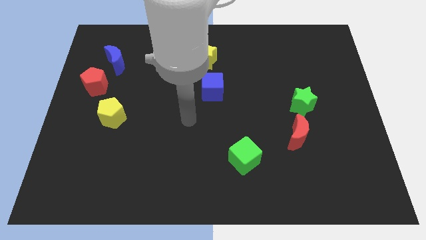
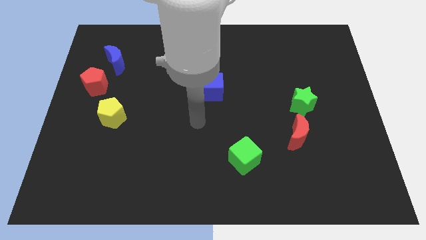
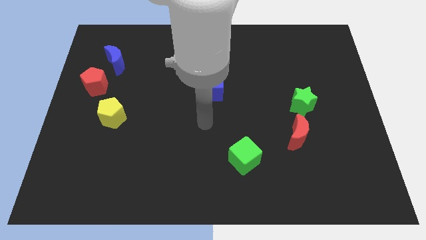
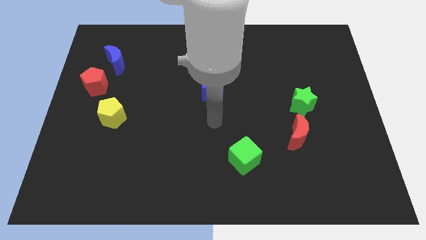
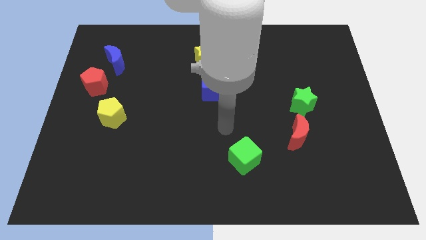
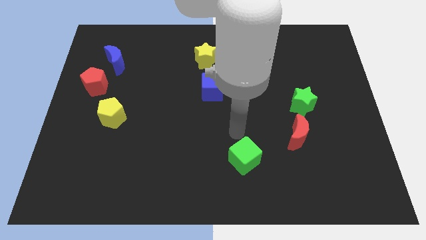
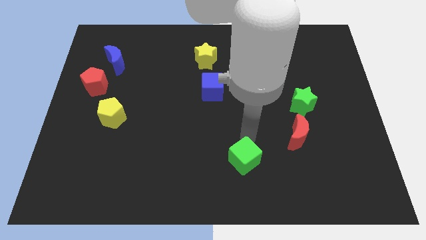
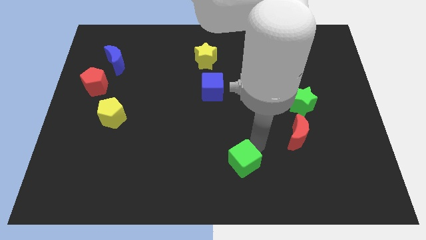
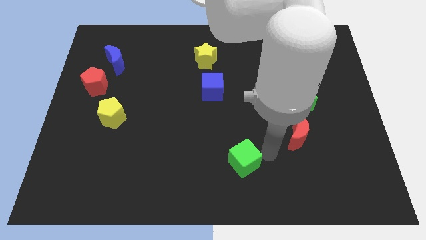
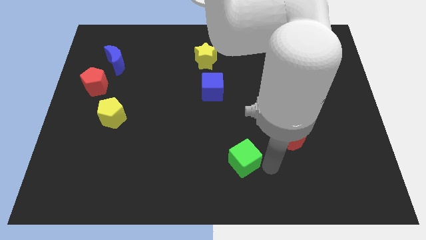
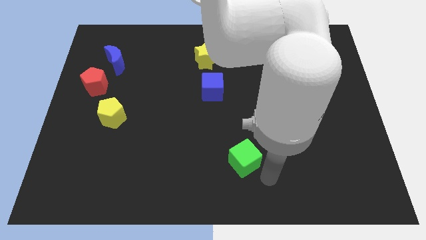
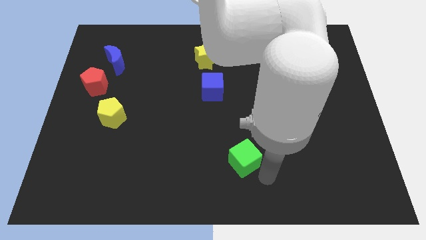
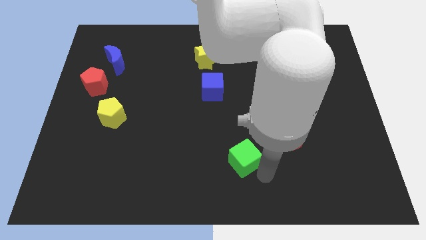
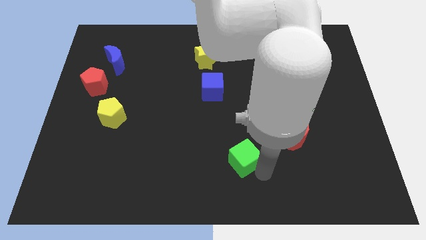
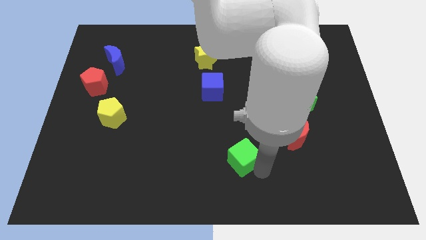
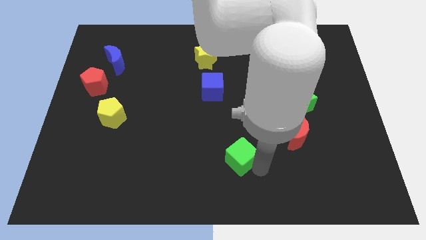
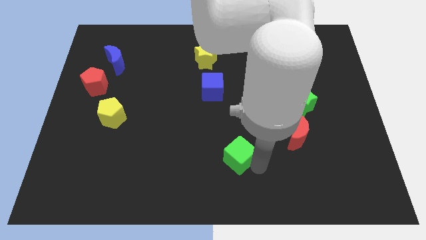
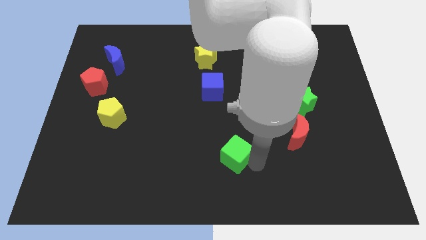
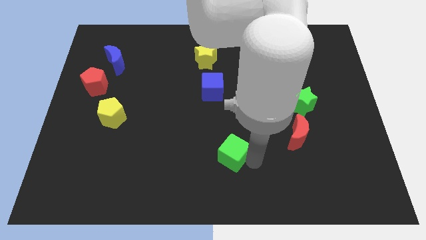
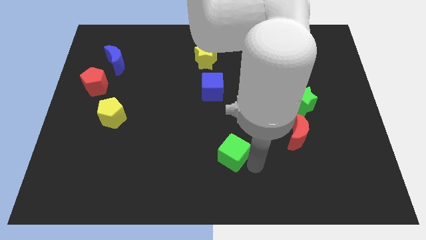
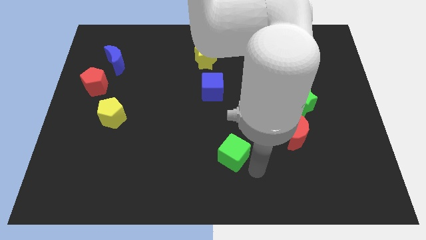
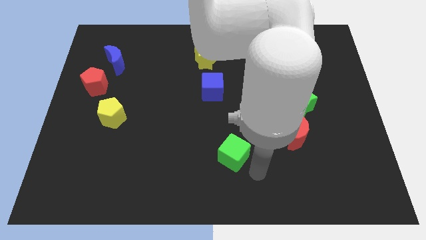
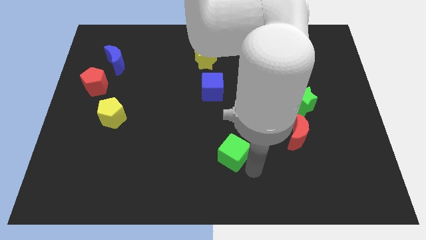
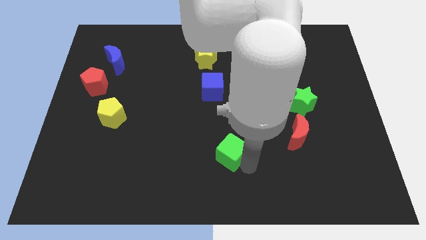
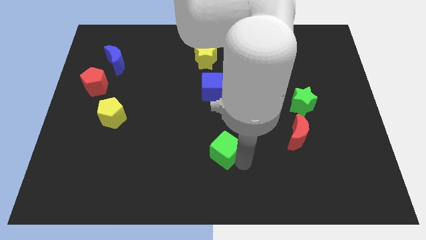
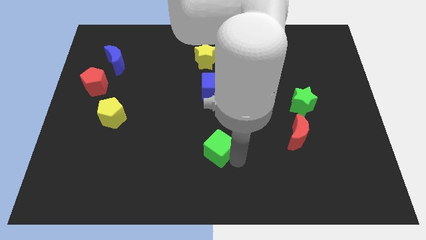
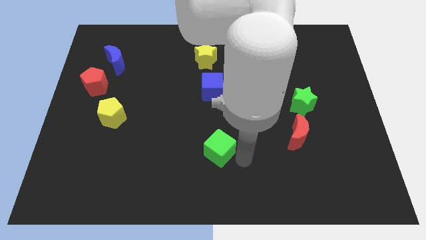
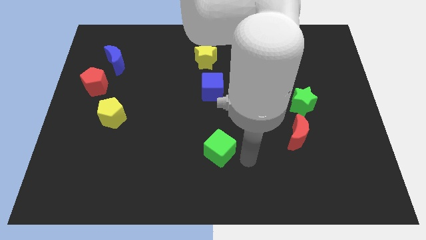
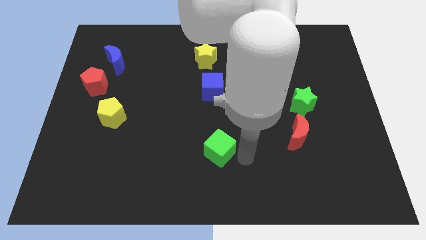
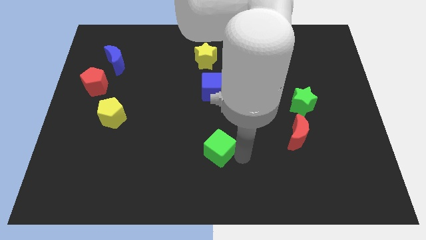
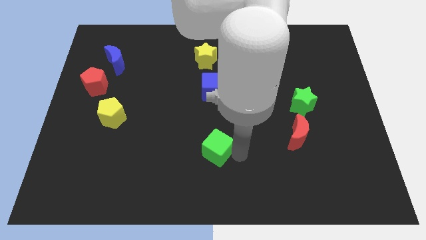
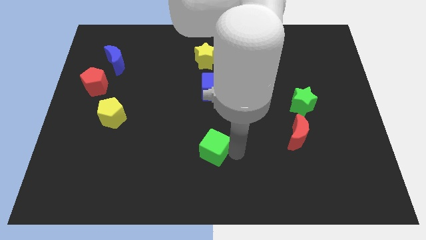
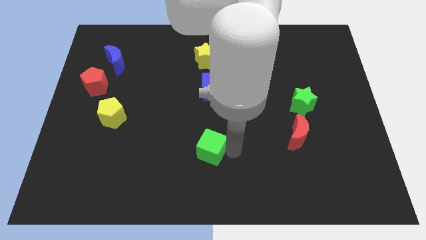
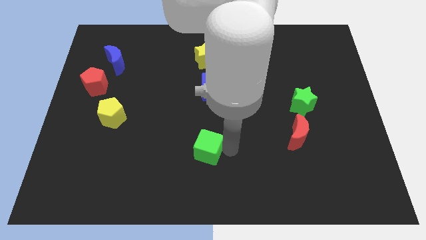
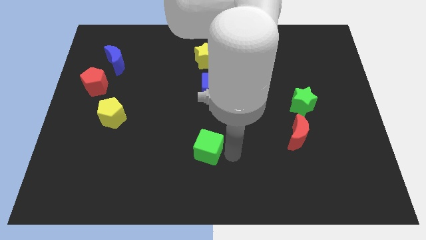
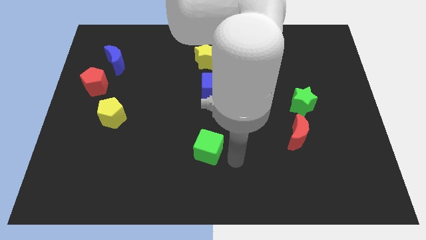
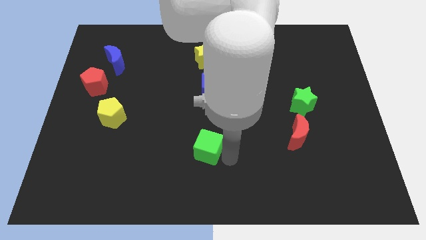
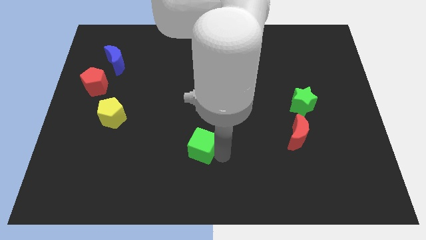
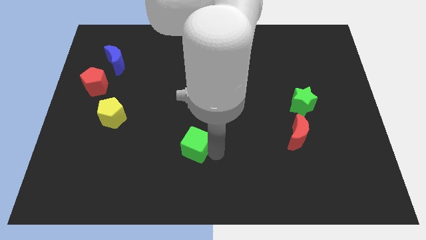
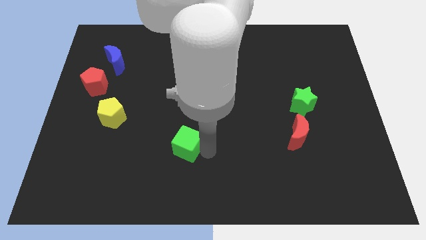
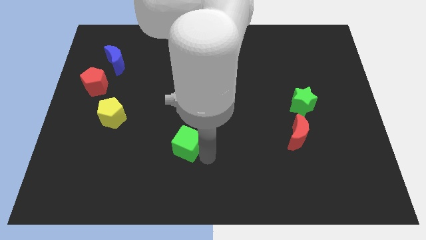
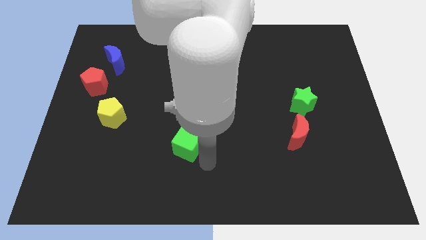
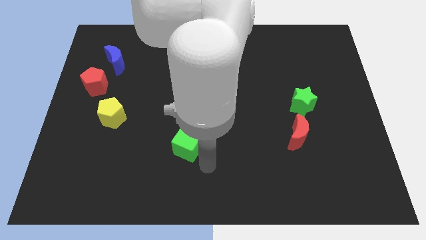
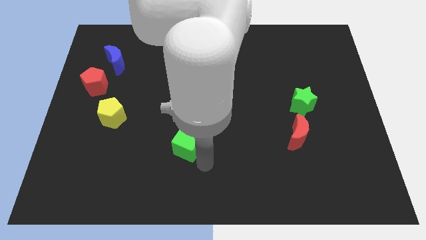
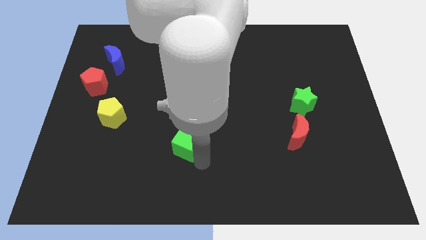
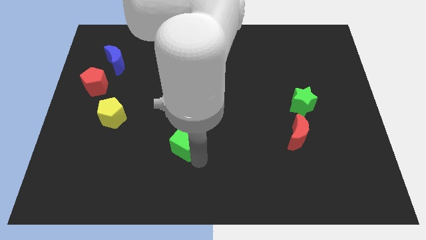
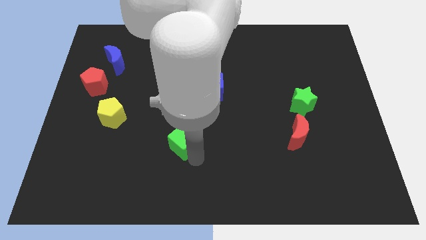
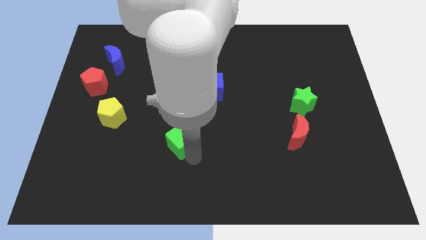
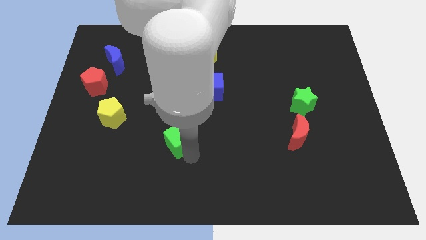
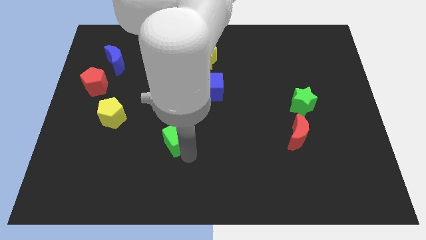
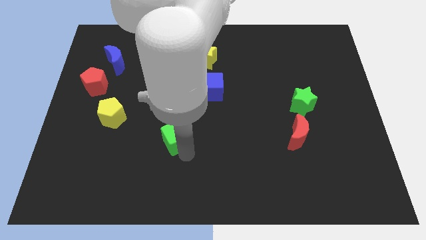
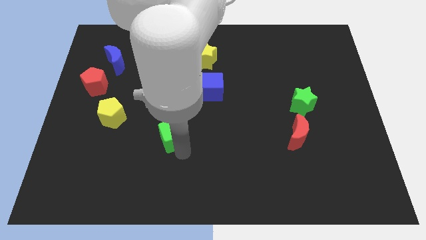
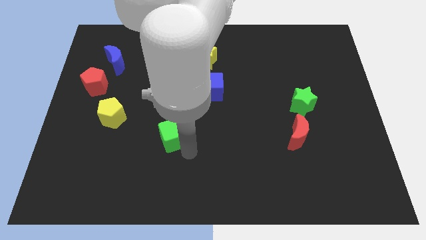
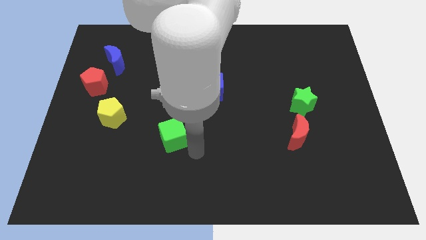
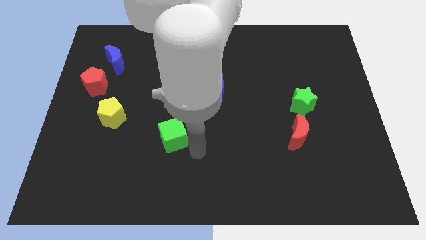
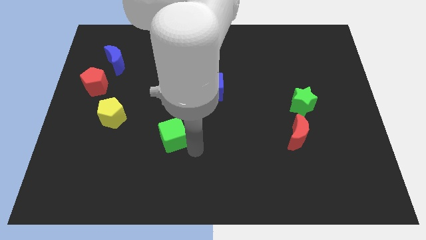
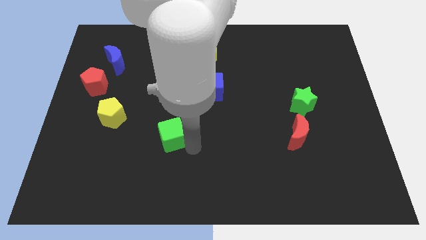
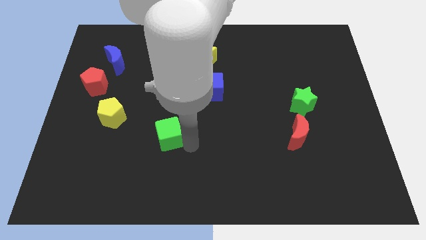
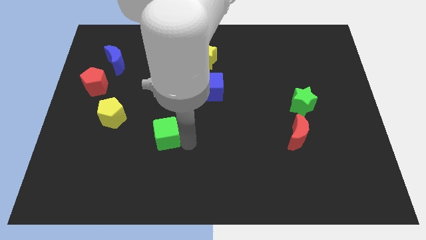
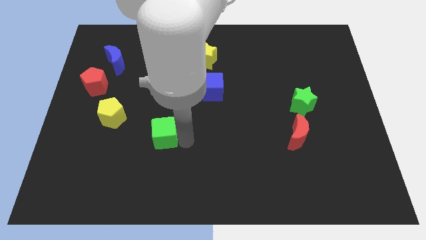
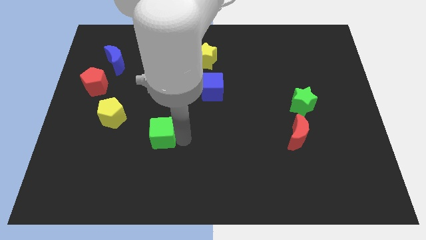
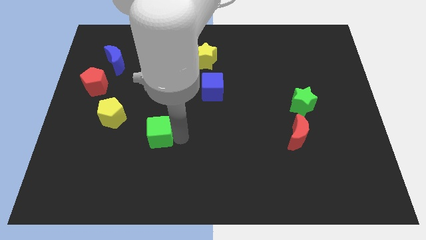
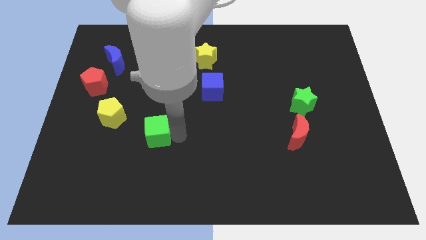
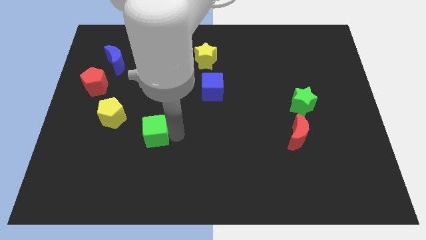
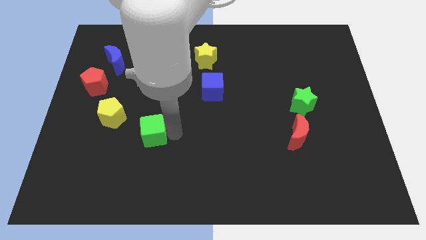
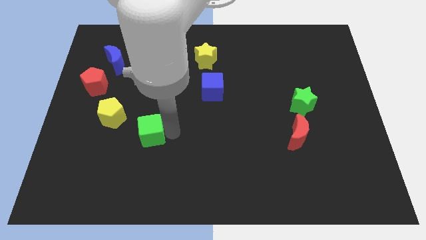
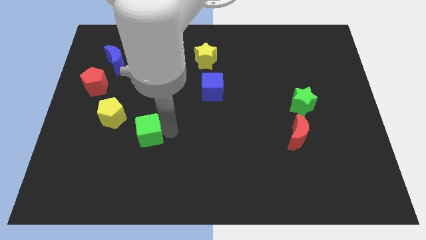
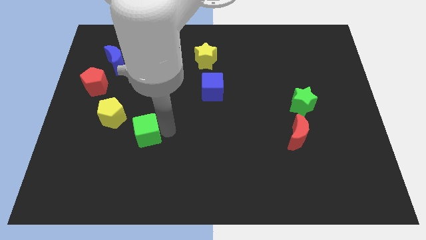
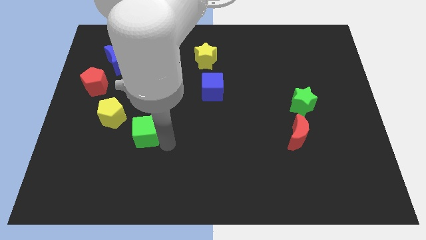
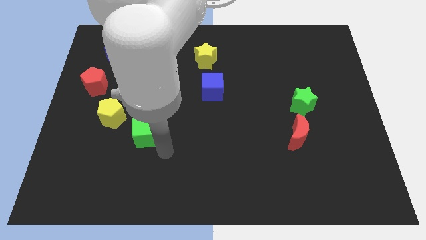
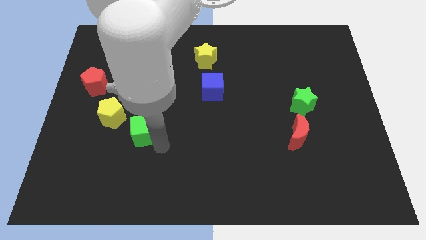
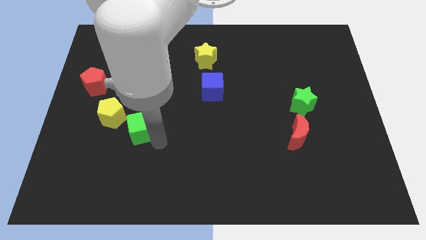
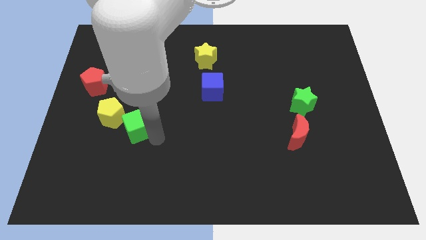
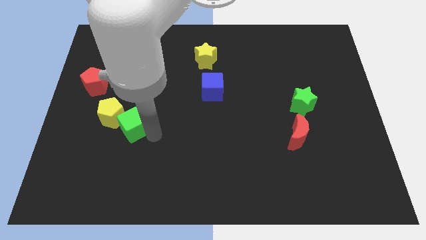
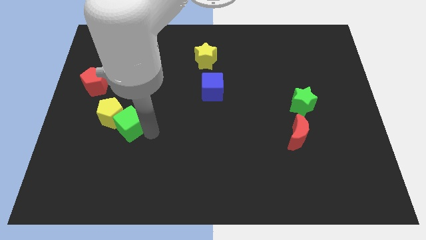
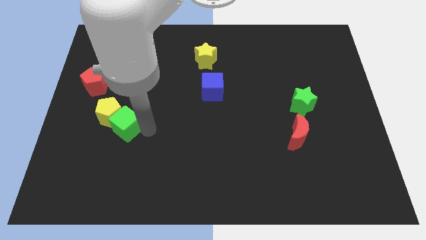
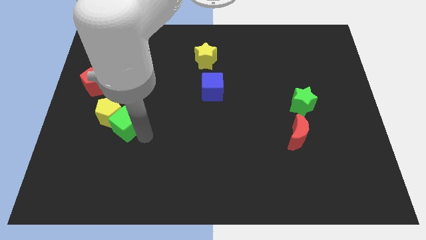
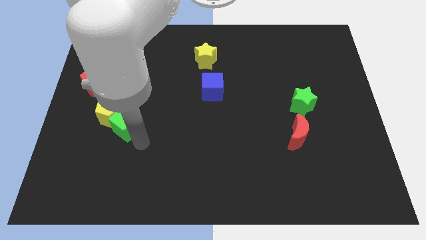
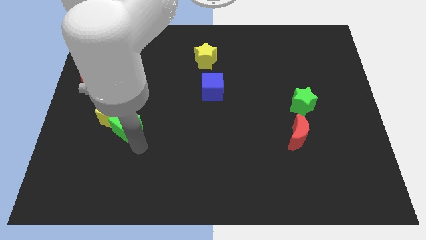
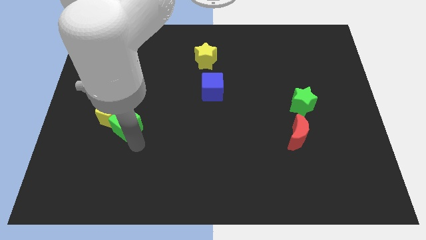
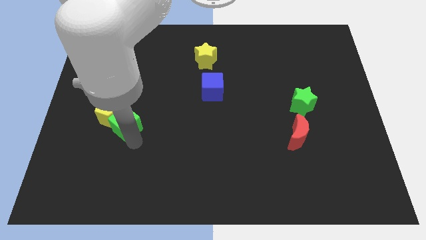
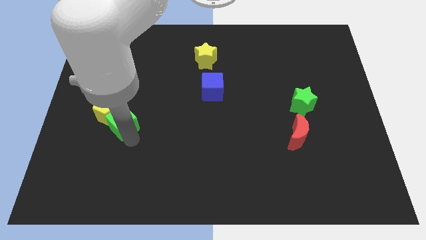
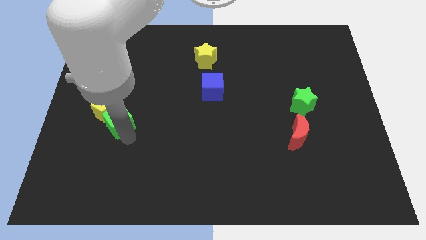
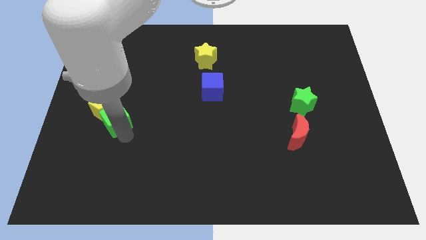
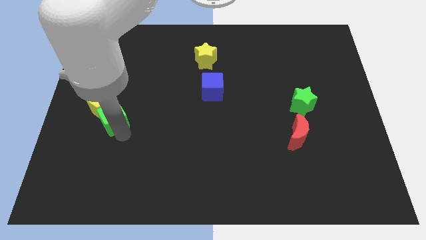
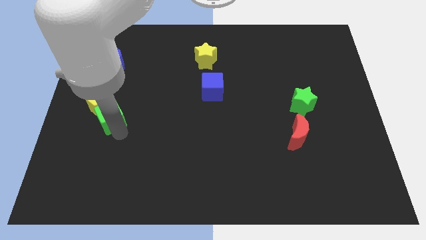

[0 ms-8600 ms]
move the green cube to the bottom right of the red pentagon
